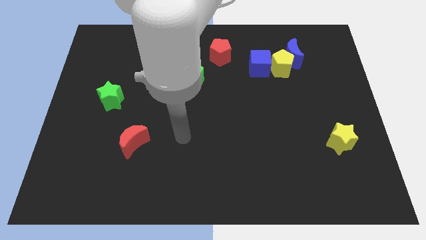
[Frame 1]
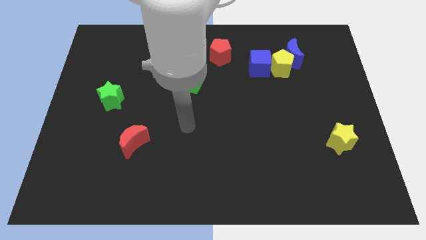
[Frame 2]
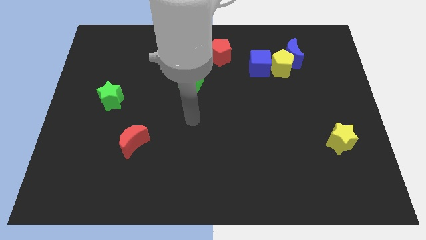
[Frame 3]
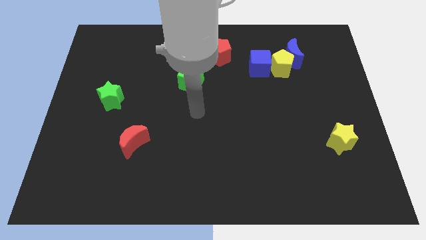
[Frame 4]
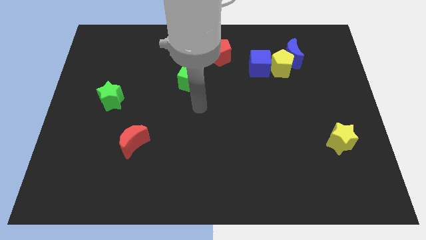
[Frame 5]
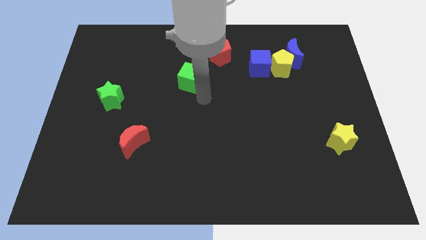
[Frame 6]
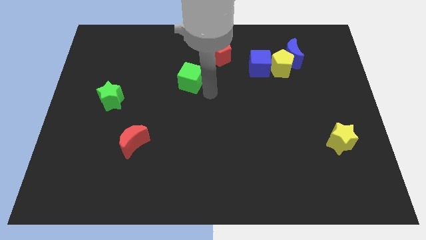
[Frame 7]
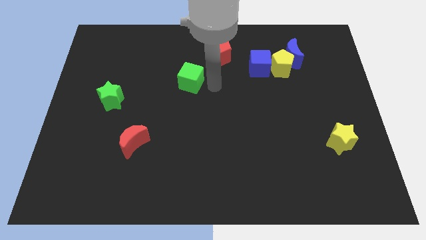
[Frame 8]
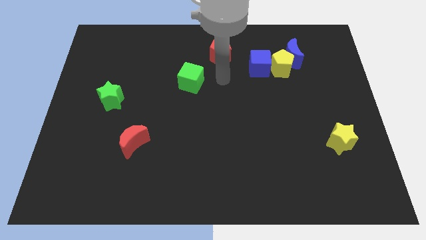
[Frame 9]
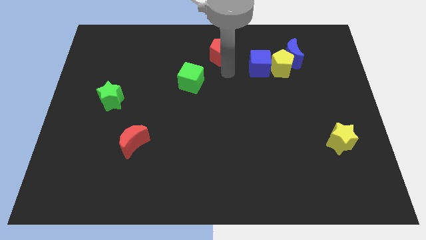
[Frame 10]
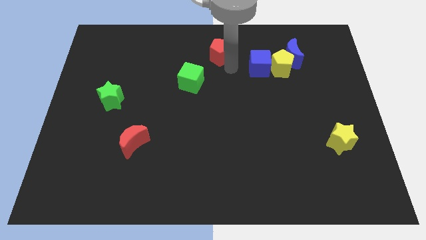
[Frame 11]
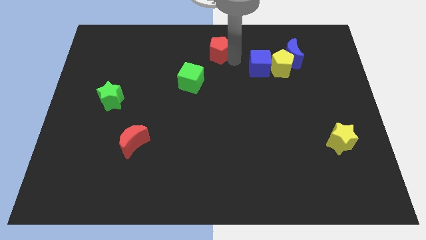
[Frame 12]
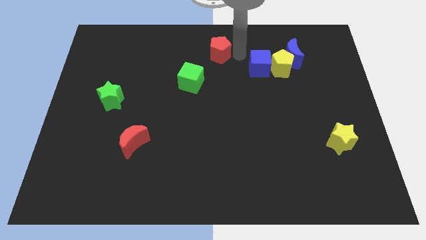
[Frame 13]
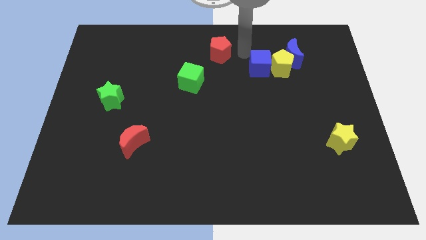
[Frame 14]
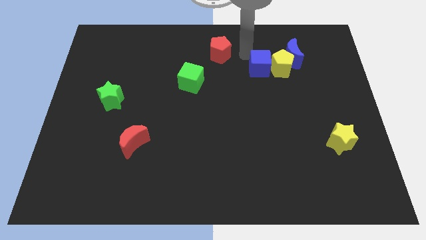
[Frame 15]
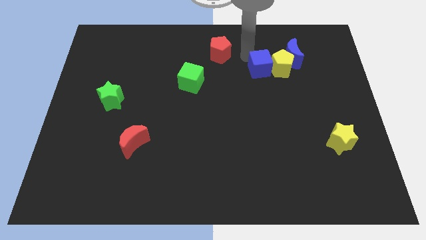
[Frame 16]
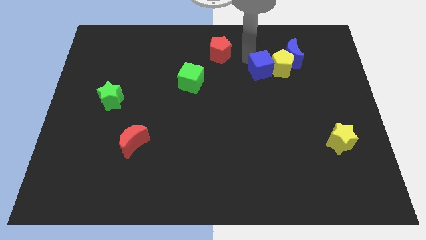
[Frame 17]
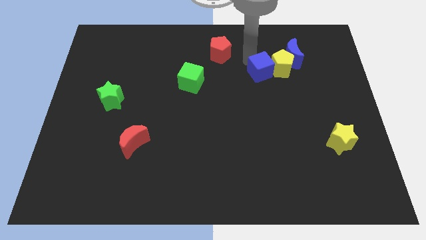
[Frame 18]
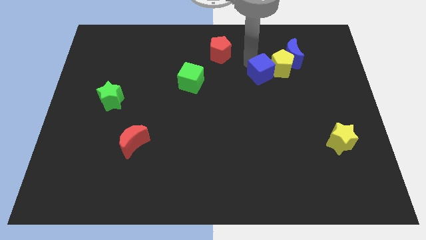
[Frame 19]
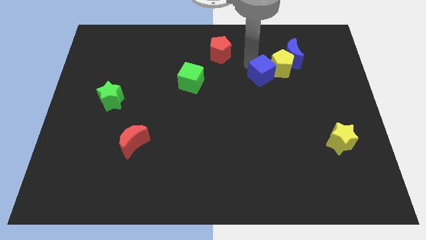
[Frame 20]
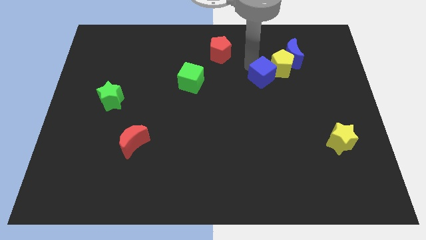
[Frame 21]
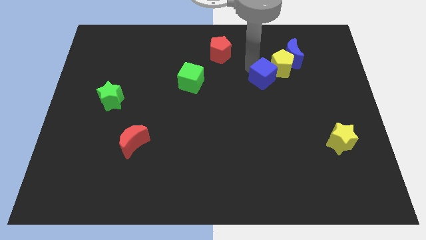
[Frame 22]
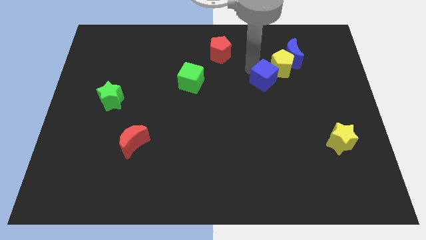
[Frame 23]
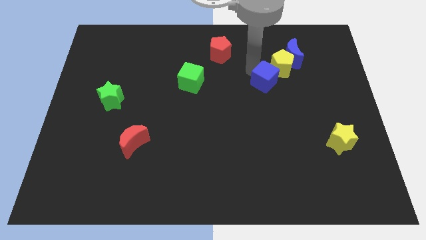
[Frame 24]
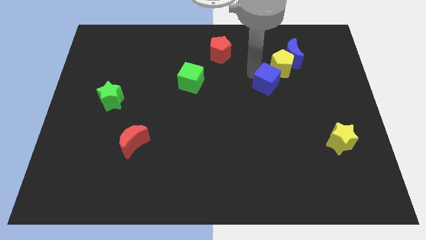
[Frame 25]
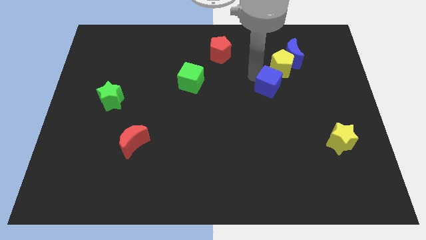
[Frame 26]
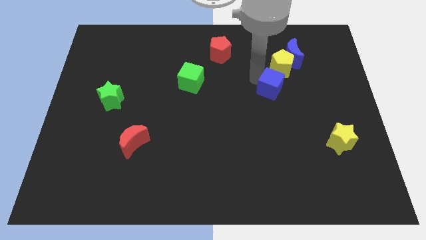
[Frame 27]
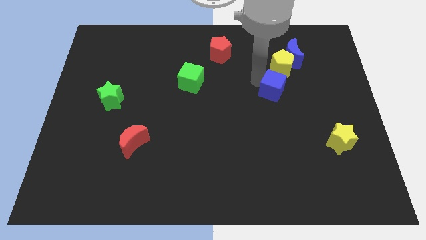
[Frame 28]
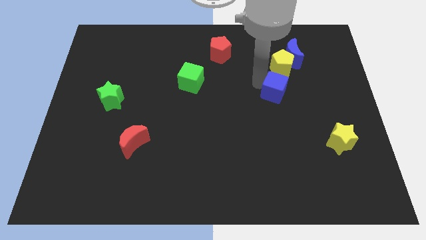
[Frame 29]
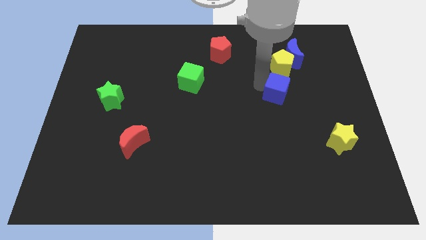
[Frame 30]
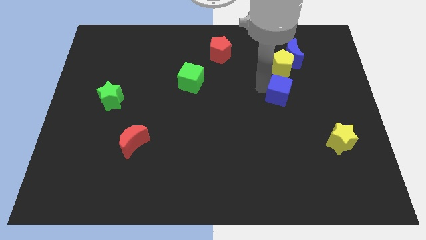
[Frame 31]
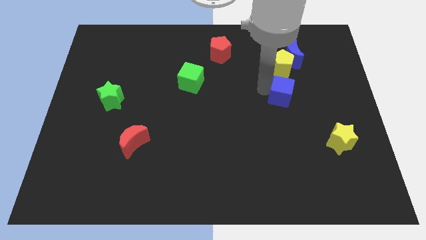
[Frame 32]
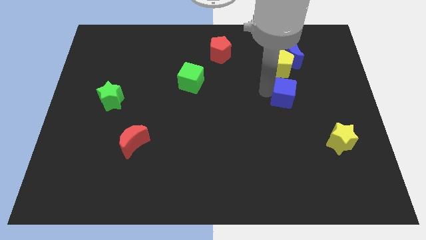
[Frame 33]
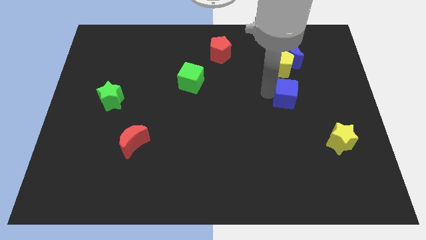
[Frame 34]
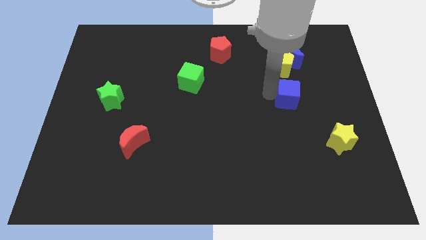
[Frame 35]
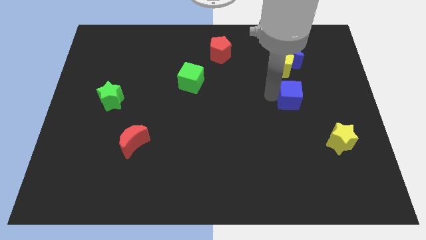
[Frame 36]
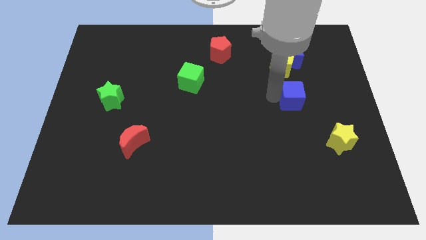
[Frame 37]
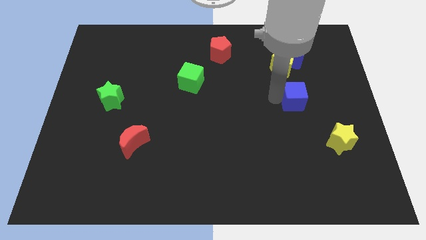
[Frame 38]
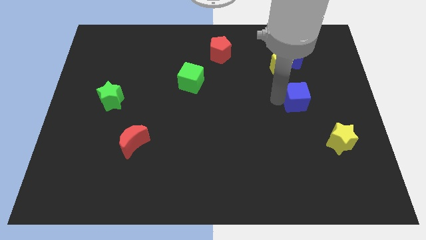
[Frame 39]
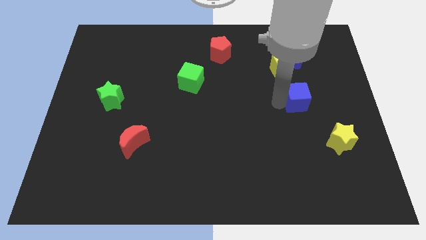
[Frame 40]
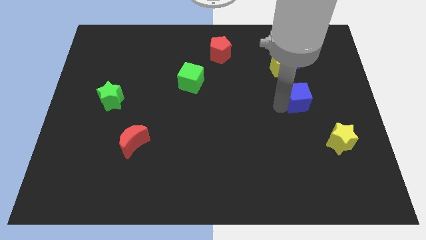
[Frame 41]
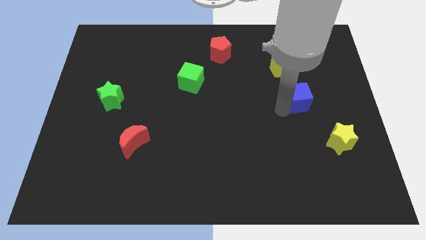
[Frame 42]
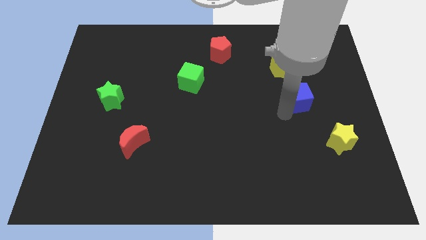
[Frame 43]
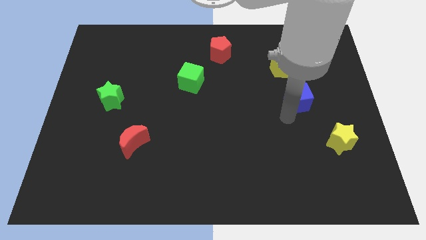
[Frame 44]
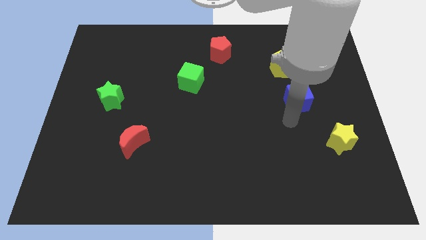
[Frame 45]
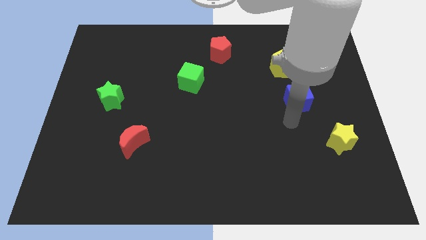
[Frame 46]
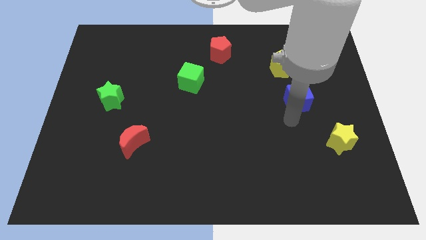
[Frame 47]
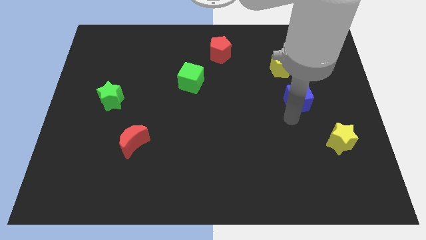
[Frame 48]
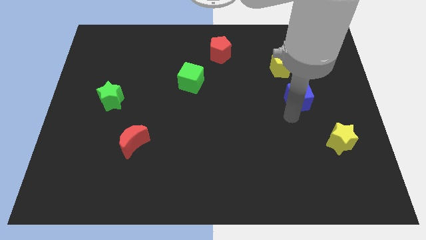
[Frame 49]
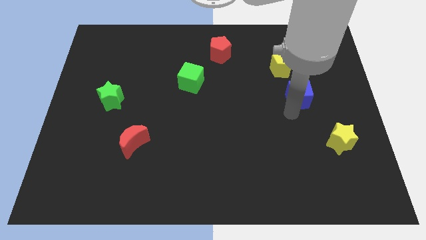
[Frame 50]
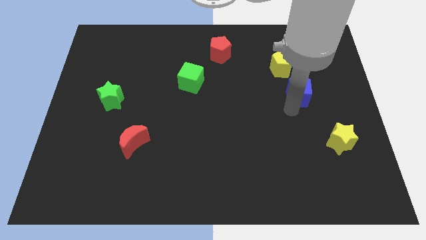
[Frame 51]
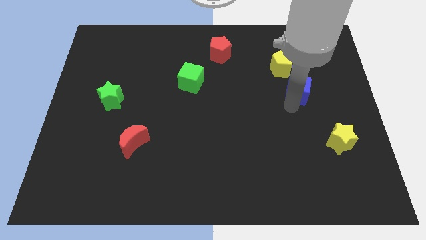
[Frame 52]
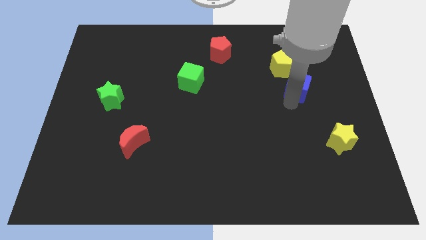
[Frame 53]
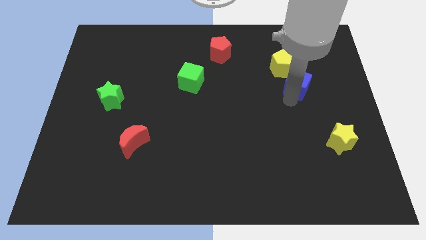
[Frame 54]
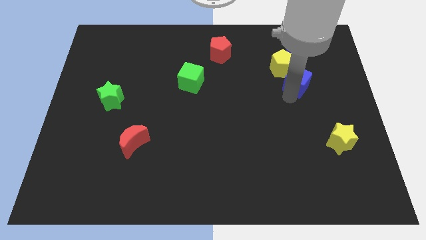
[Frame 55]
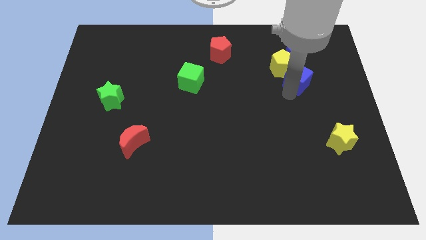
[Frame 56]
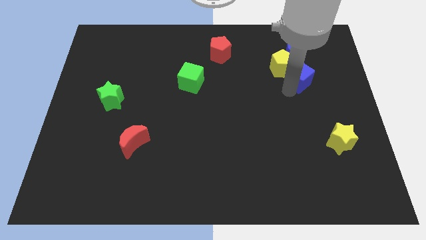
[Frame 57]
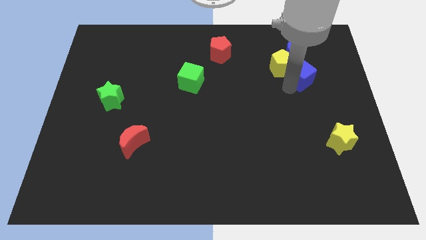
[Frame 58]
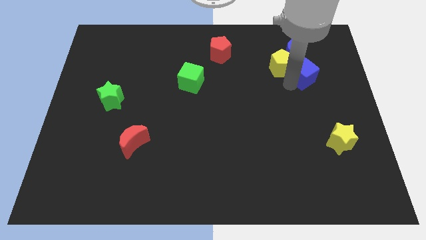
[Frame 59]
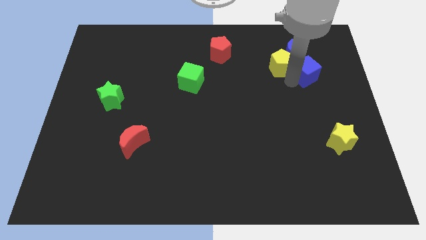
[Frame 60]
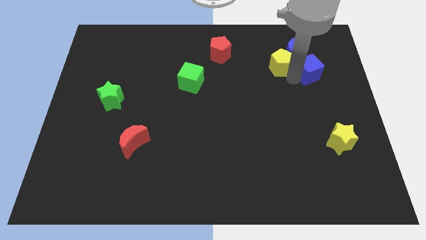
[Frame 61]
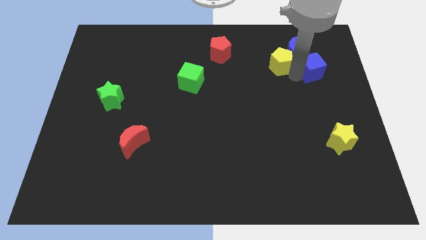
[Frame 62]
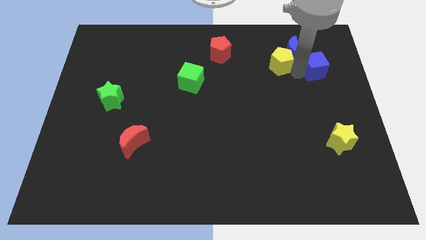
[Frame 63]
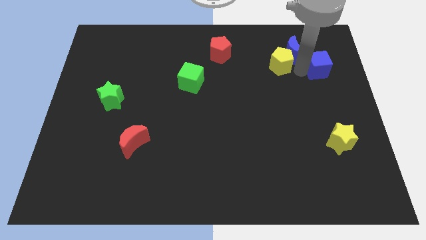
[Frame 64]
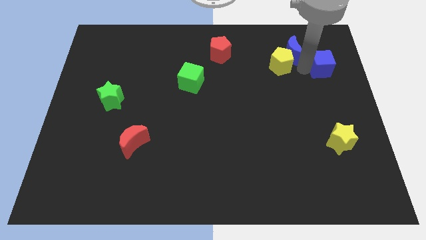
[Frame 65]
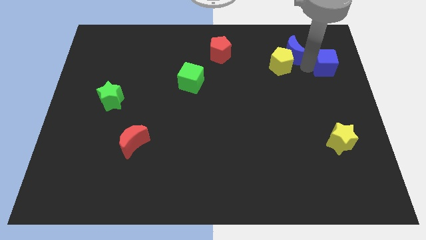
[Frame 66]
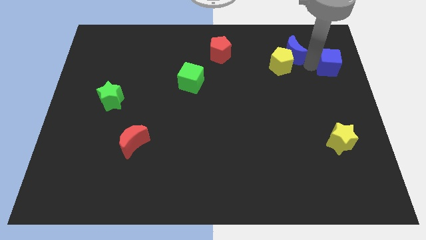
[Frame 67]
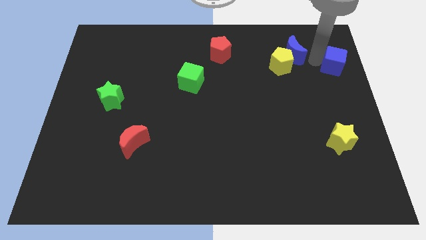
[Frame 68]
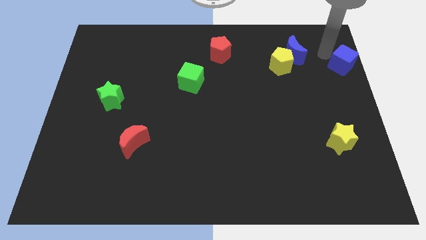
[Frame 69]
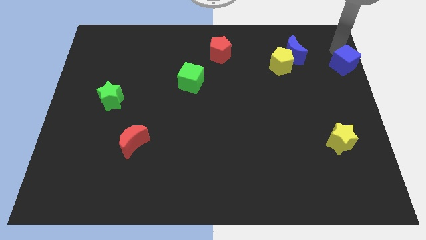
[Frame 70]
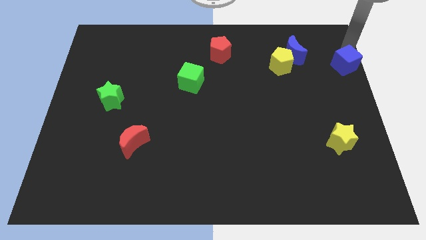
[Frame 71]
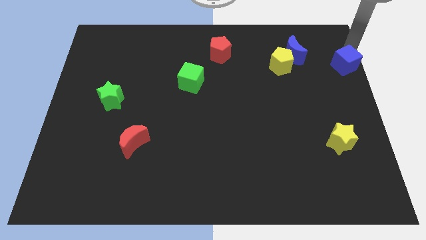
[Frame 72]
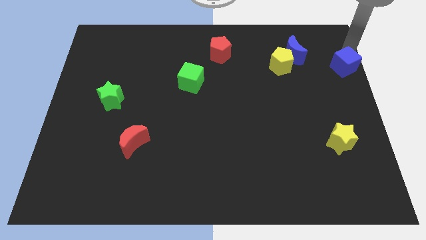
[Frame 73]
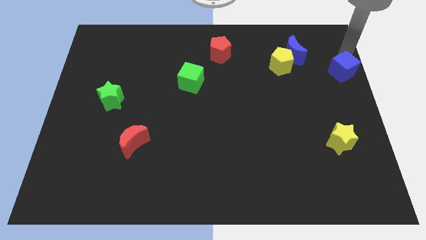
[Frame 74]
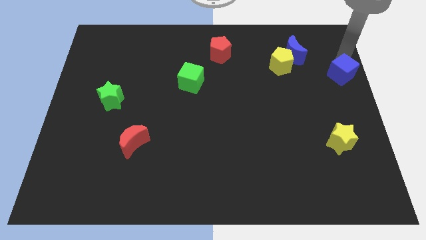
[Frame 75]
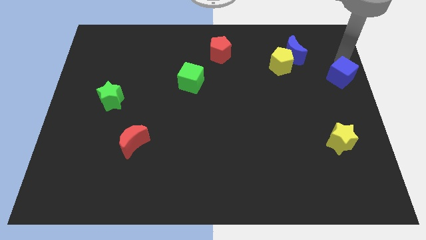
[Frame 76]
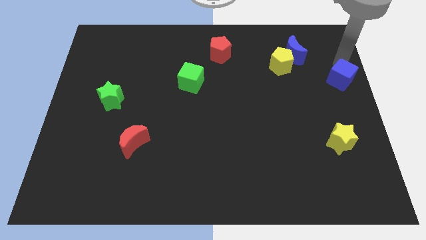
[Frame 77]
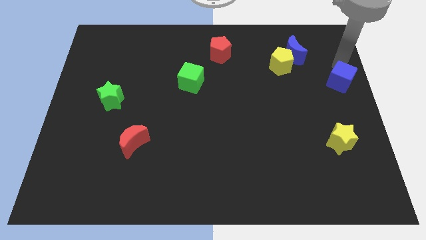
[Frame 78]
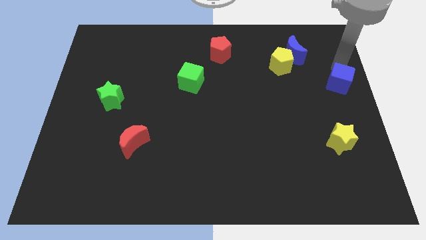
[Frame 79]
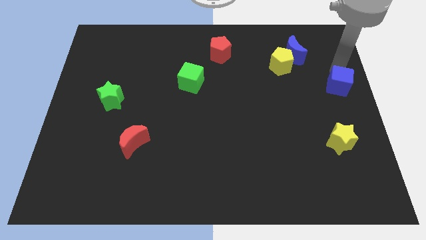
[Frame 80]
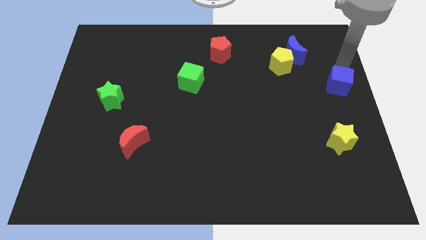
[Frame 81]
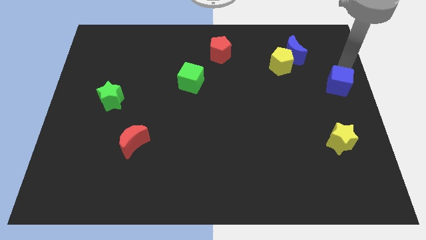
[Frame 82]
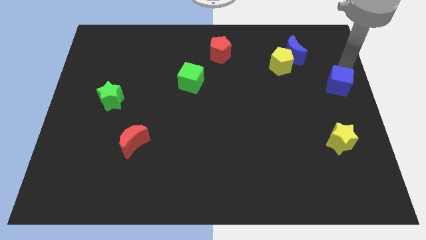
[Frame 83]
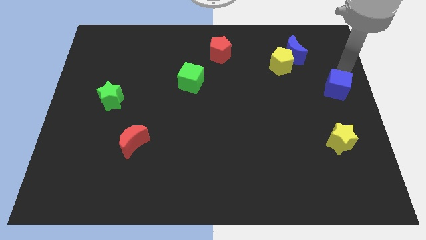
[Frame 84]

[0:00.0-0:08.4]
move the blue cube to the top side of the yellow star
